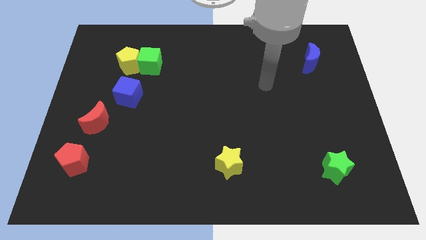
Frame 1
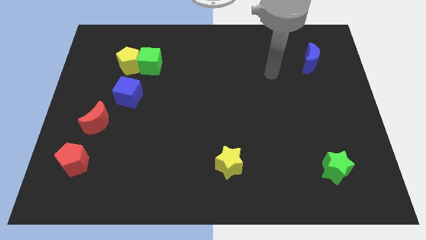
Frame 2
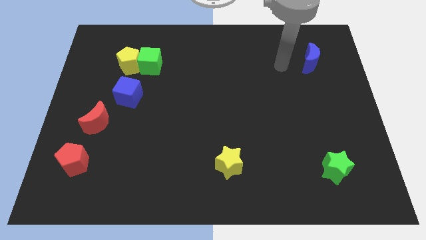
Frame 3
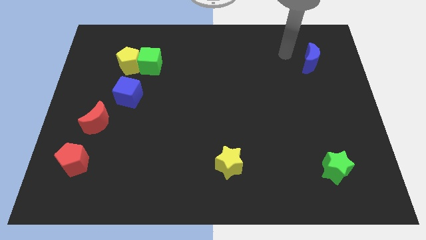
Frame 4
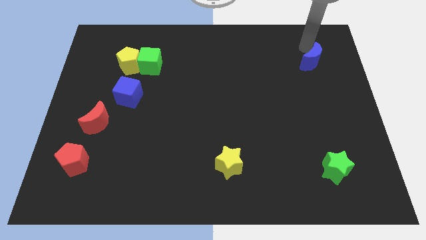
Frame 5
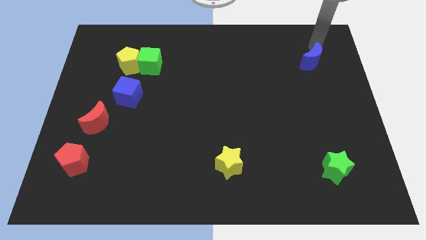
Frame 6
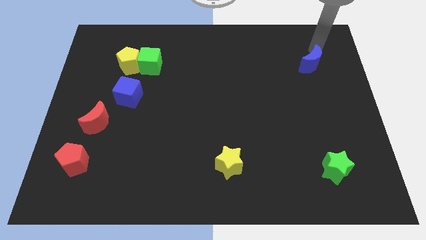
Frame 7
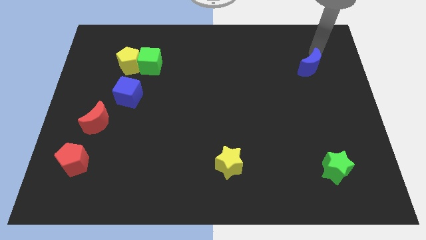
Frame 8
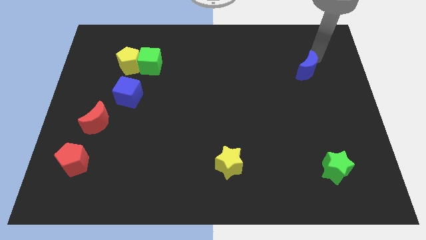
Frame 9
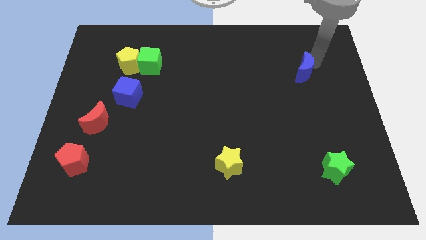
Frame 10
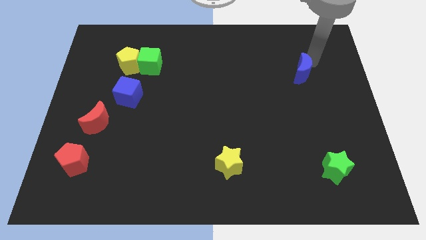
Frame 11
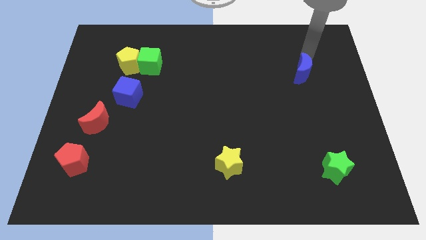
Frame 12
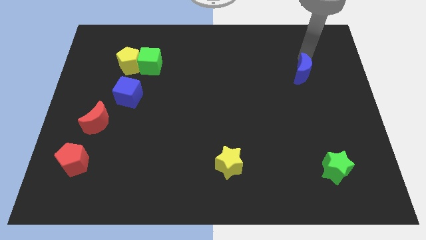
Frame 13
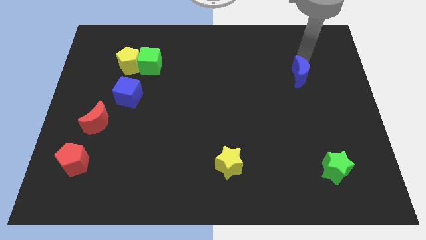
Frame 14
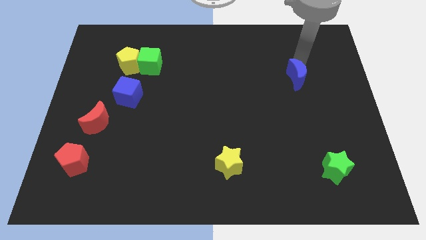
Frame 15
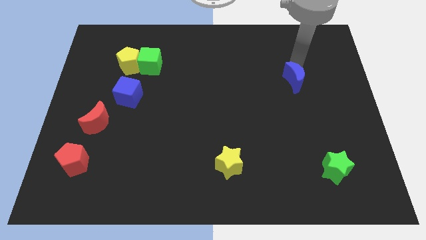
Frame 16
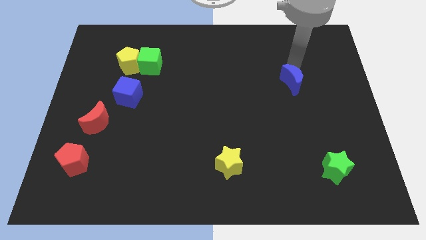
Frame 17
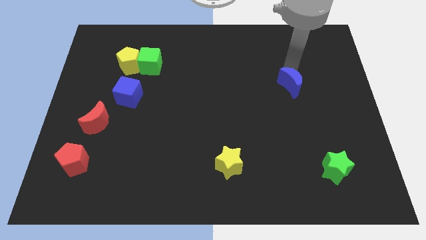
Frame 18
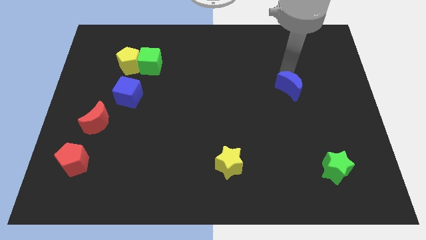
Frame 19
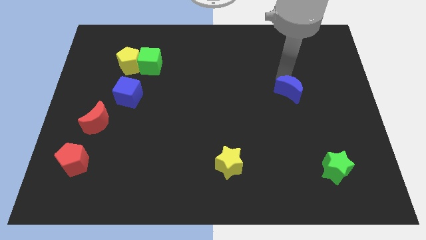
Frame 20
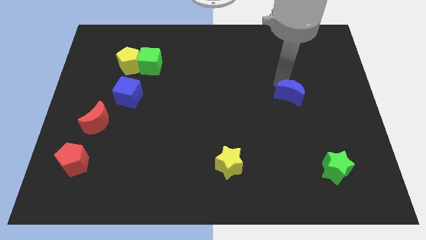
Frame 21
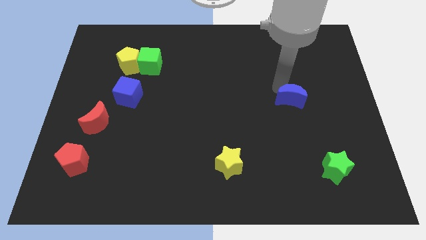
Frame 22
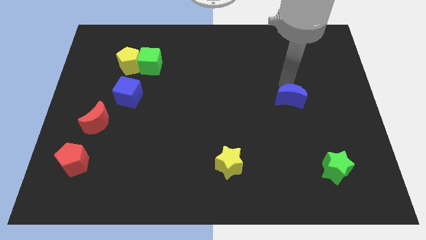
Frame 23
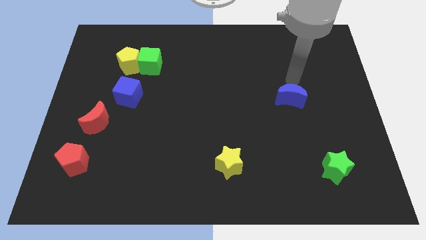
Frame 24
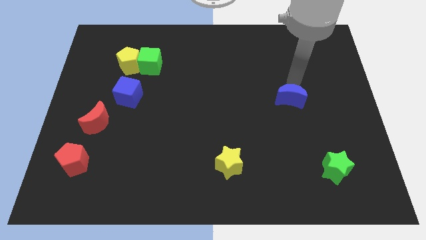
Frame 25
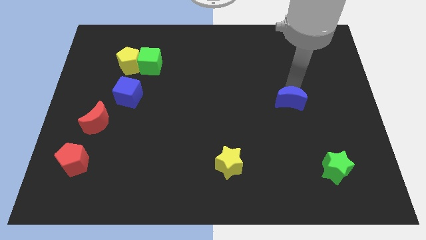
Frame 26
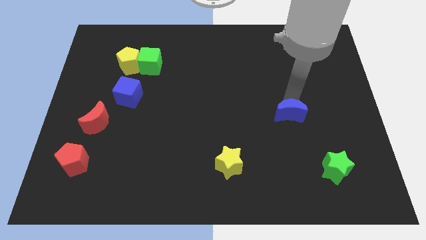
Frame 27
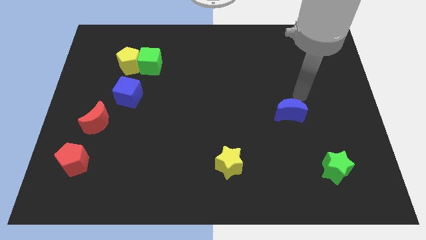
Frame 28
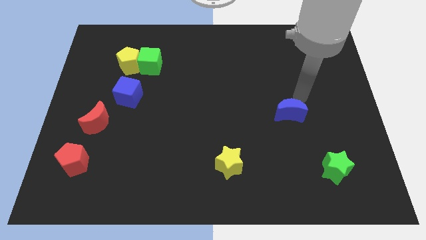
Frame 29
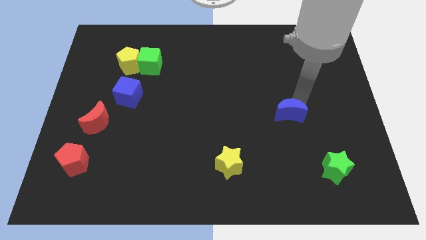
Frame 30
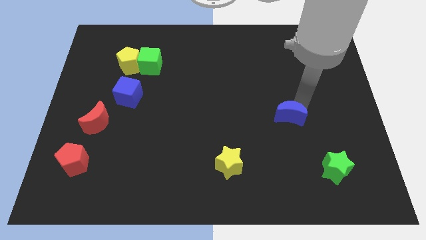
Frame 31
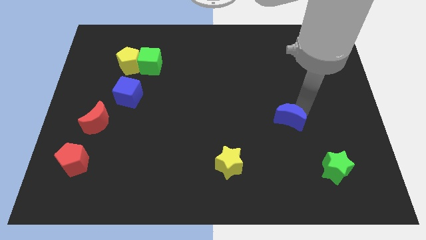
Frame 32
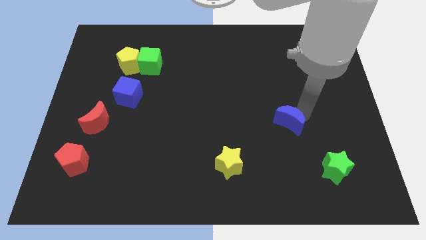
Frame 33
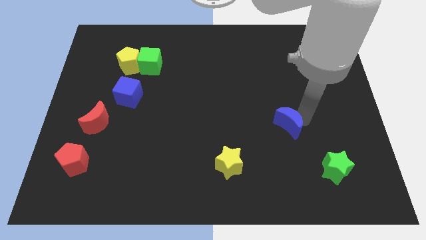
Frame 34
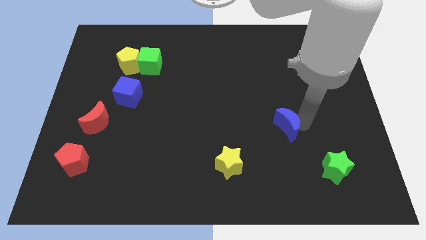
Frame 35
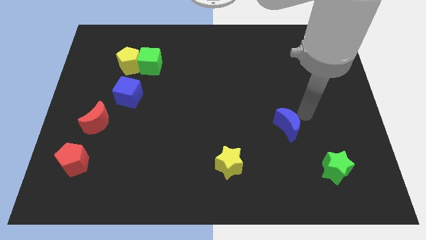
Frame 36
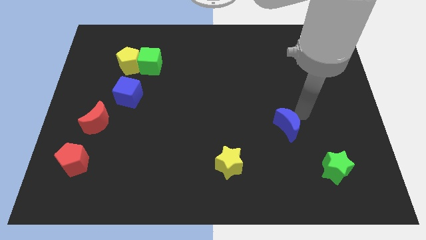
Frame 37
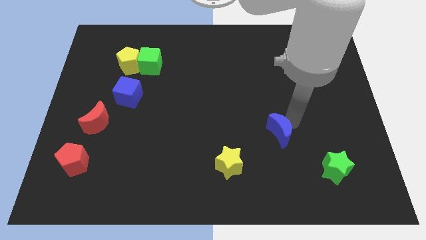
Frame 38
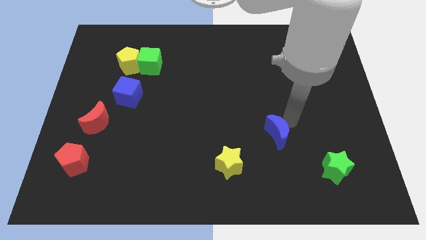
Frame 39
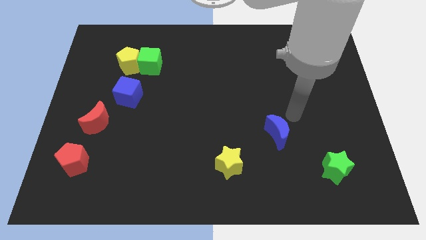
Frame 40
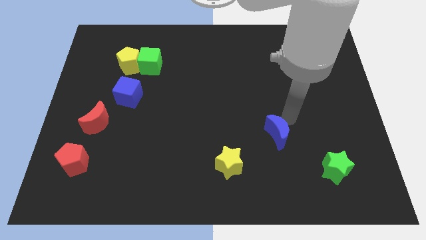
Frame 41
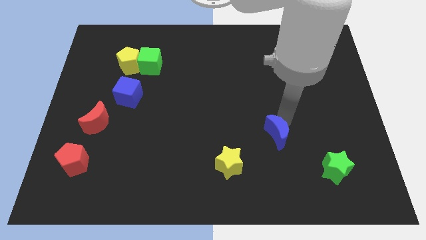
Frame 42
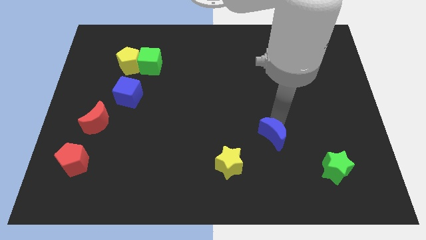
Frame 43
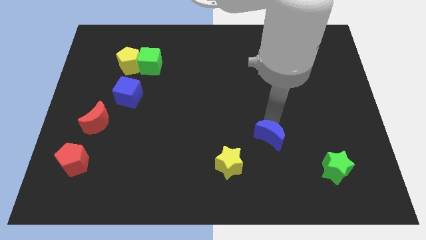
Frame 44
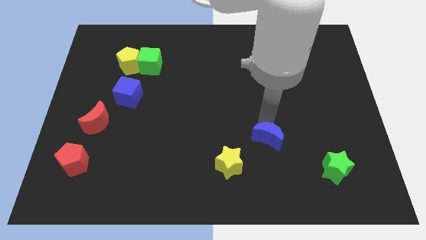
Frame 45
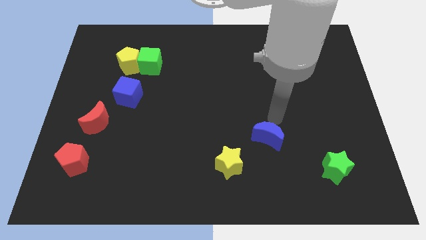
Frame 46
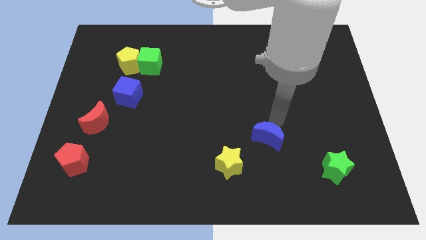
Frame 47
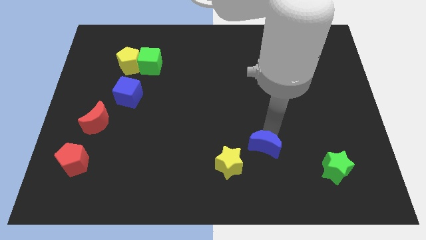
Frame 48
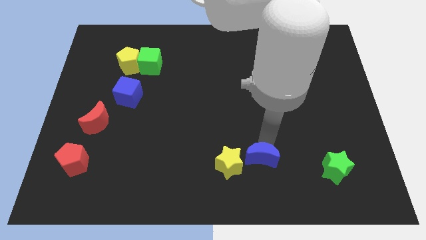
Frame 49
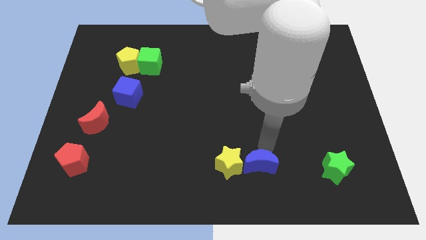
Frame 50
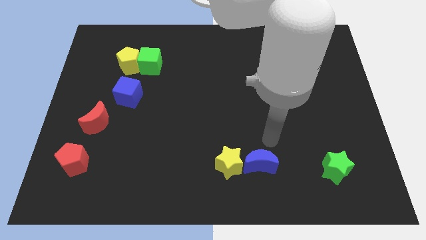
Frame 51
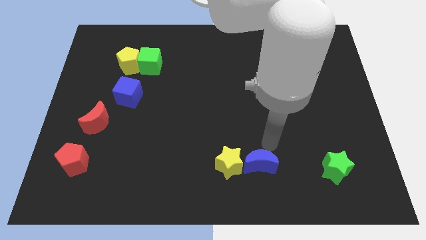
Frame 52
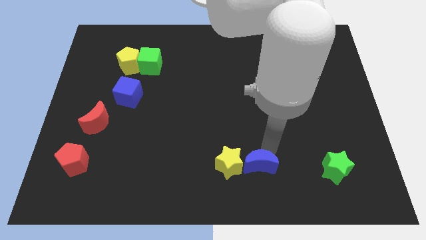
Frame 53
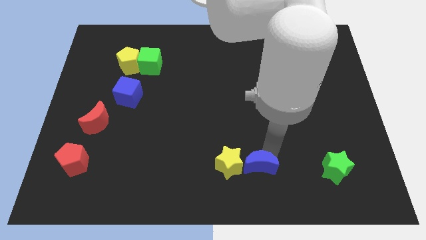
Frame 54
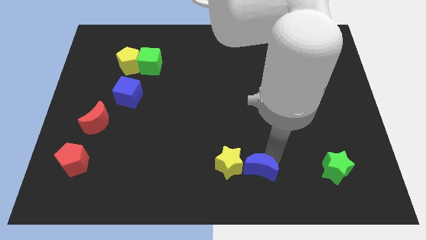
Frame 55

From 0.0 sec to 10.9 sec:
slide the blue moon to the bottom

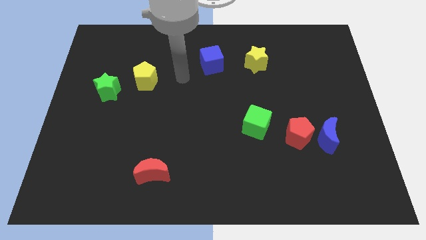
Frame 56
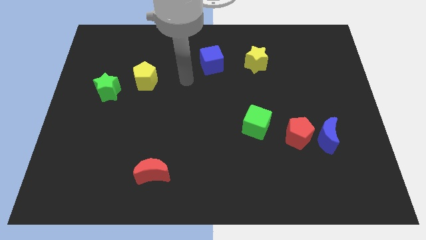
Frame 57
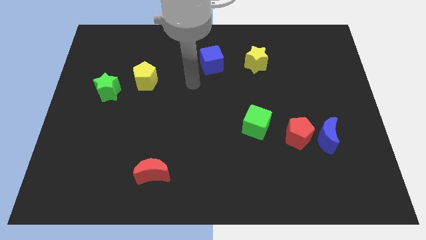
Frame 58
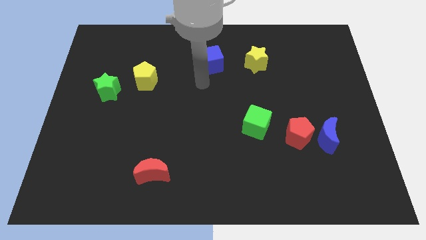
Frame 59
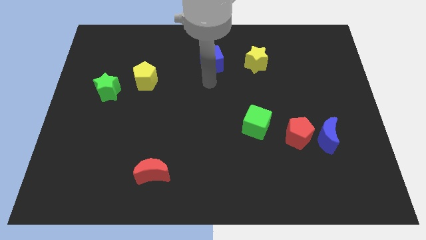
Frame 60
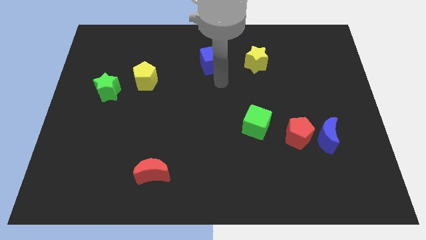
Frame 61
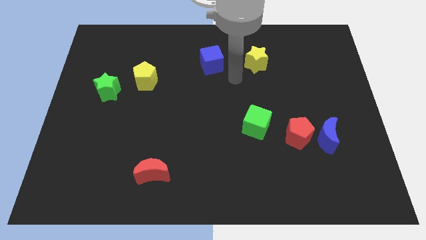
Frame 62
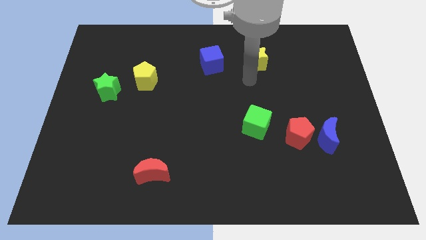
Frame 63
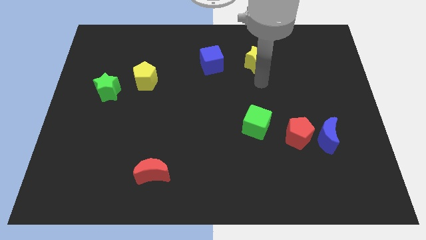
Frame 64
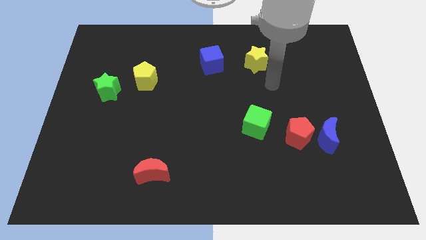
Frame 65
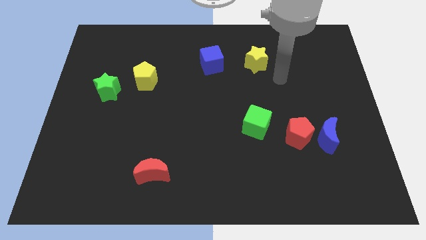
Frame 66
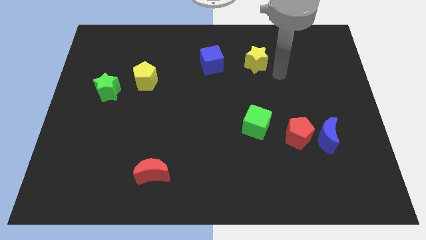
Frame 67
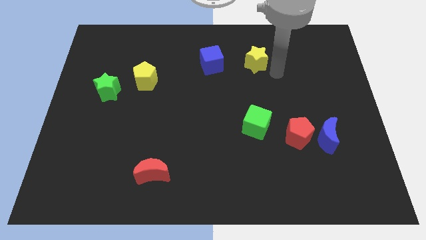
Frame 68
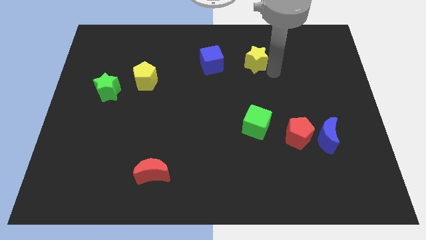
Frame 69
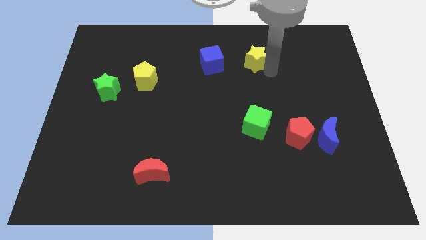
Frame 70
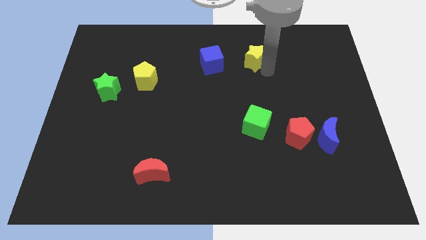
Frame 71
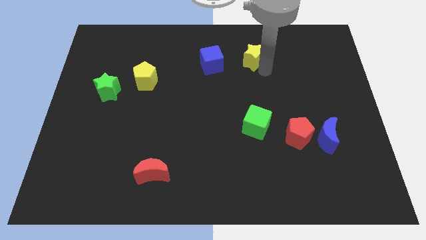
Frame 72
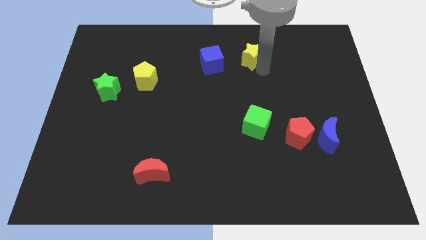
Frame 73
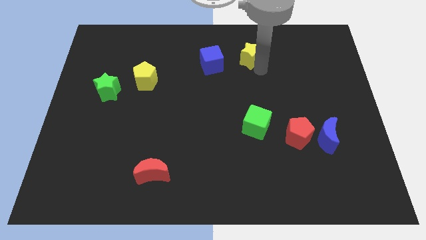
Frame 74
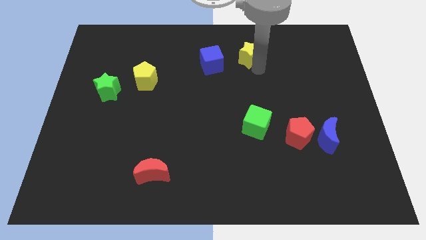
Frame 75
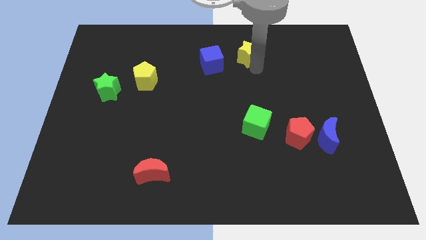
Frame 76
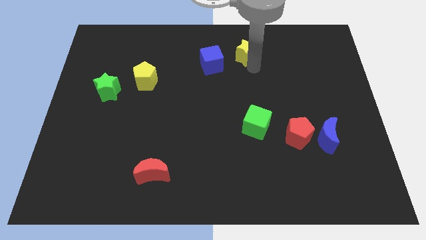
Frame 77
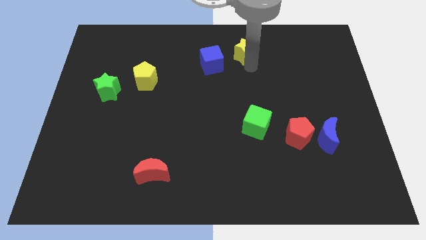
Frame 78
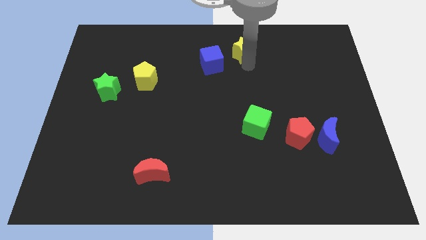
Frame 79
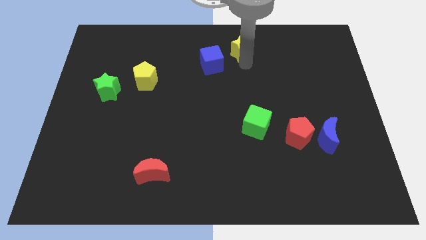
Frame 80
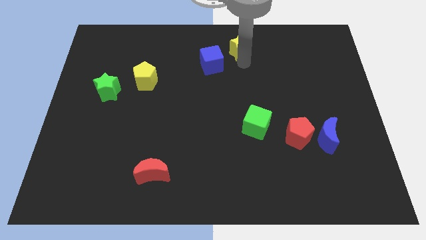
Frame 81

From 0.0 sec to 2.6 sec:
put the yellow star to the towards your base

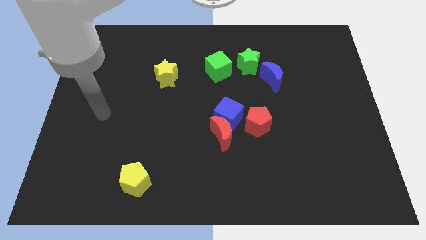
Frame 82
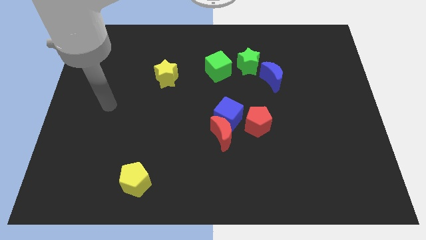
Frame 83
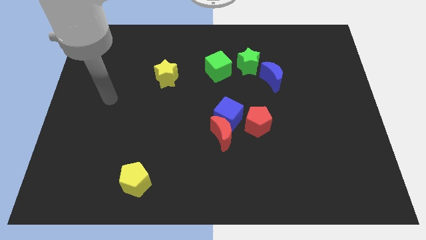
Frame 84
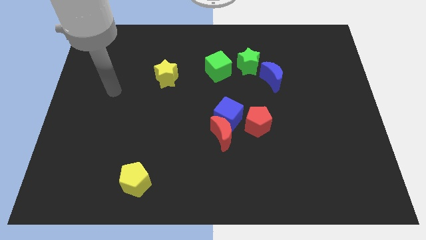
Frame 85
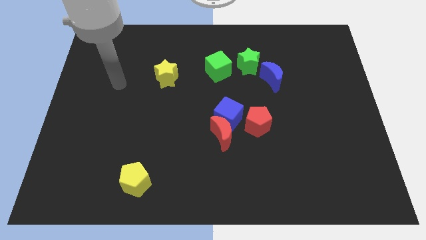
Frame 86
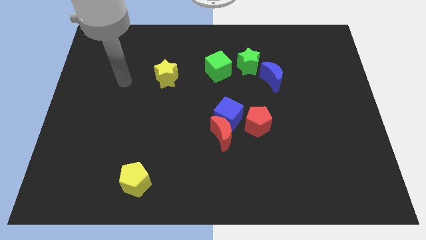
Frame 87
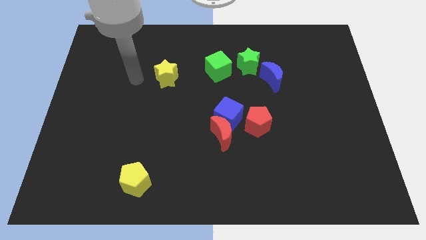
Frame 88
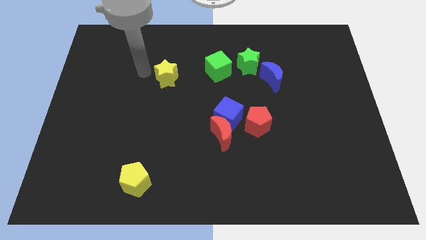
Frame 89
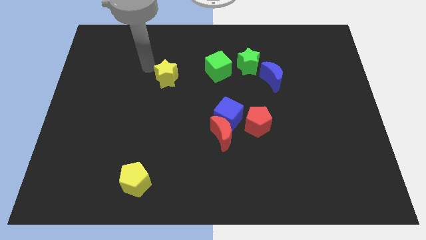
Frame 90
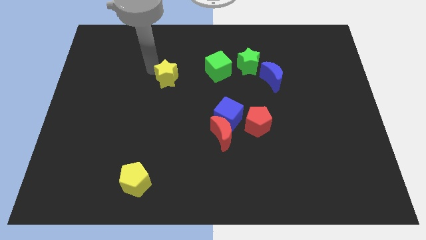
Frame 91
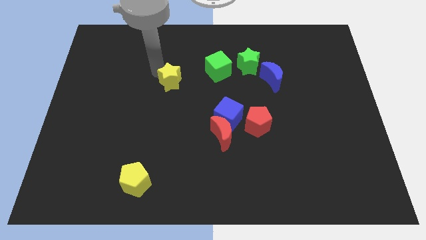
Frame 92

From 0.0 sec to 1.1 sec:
put the yellow star to the center of the board
